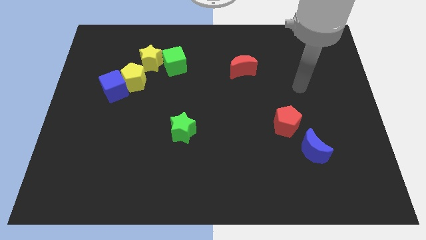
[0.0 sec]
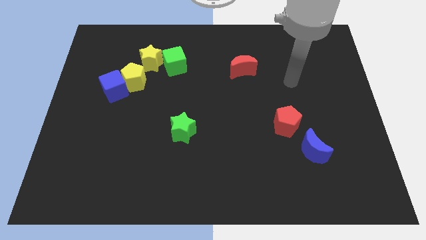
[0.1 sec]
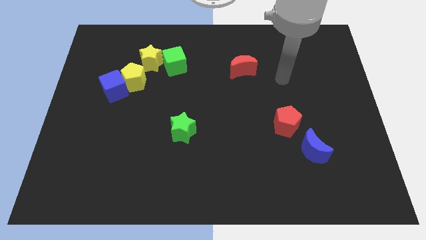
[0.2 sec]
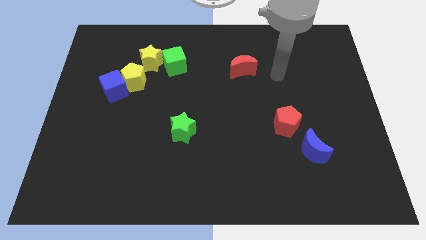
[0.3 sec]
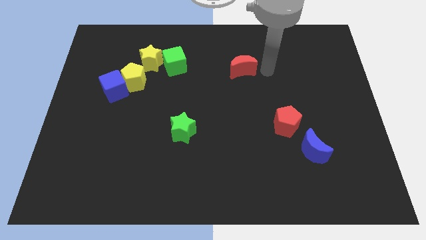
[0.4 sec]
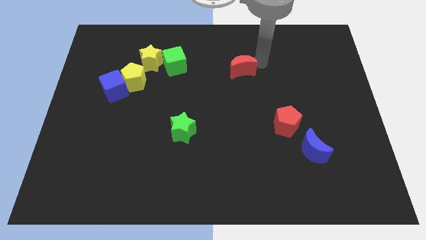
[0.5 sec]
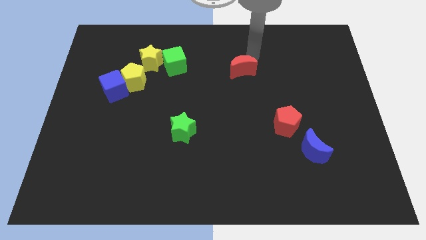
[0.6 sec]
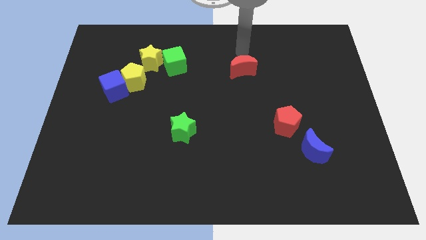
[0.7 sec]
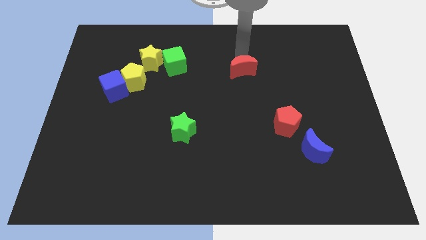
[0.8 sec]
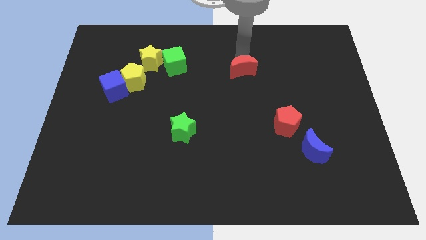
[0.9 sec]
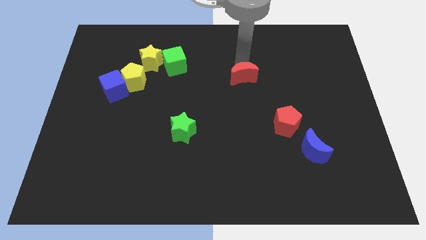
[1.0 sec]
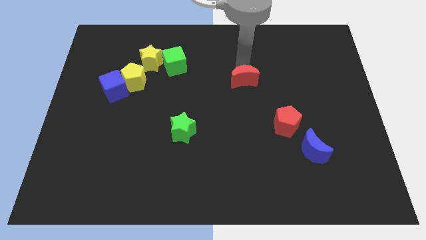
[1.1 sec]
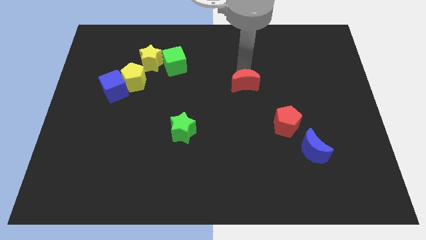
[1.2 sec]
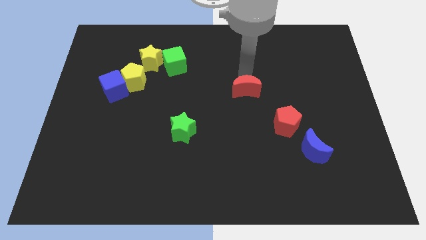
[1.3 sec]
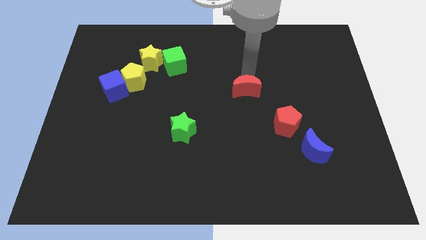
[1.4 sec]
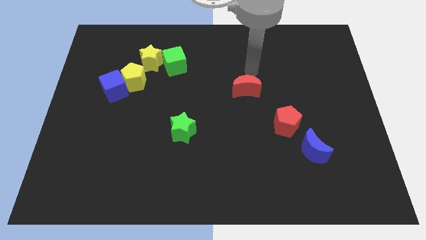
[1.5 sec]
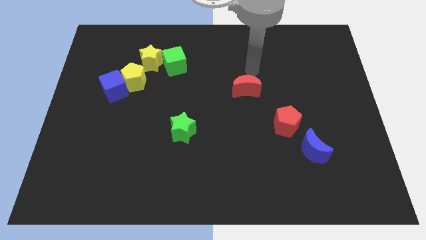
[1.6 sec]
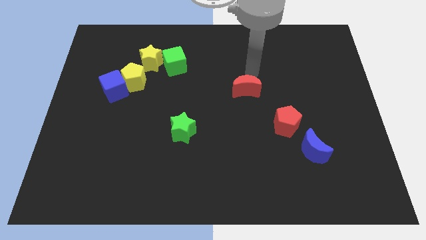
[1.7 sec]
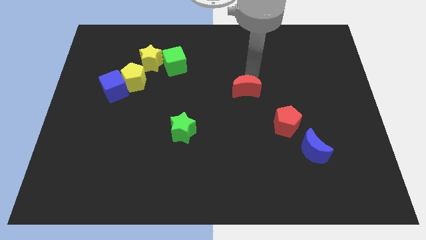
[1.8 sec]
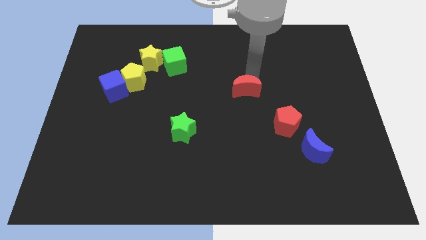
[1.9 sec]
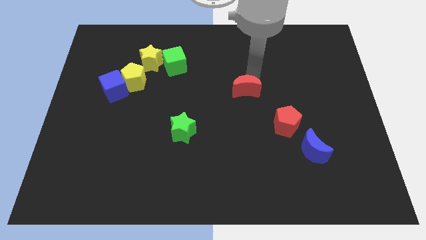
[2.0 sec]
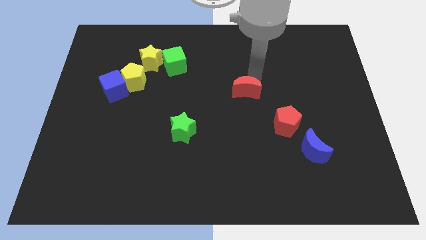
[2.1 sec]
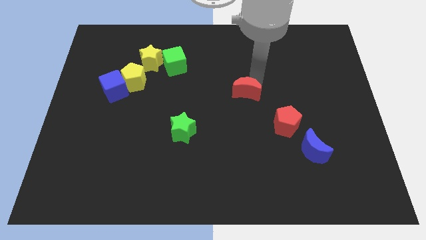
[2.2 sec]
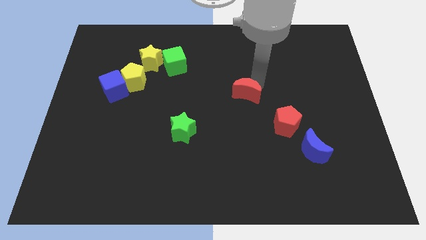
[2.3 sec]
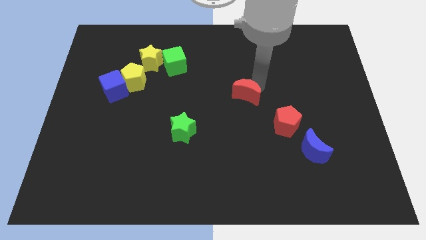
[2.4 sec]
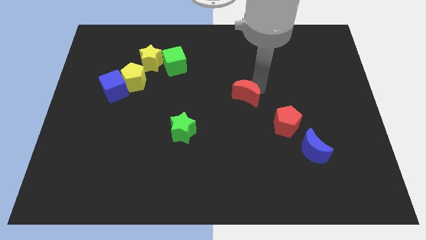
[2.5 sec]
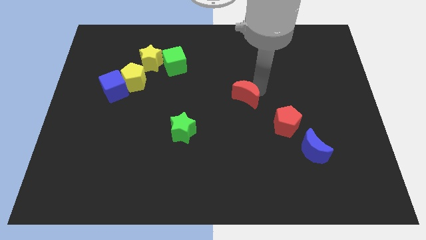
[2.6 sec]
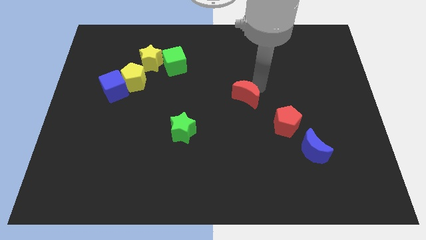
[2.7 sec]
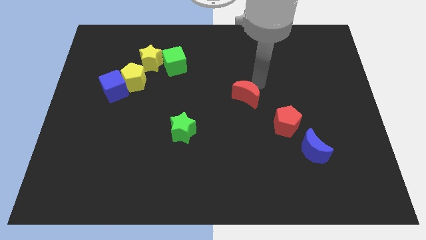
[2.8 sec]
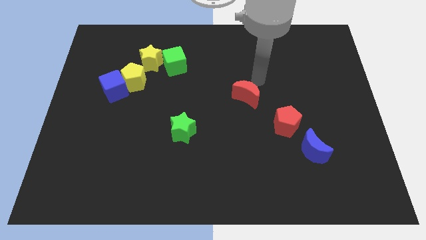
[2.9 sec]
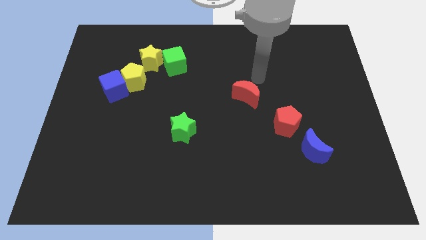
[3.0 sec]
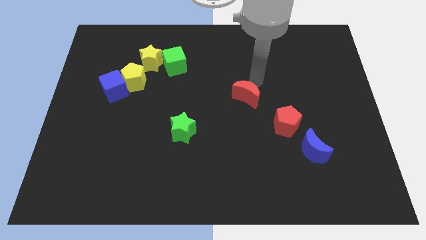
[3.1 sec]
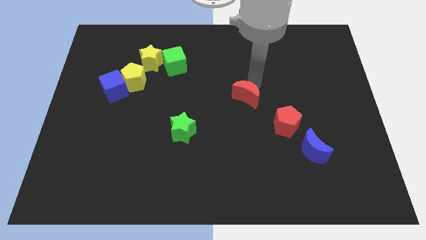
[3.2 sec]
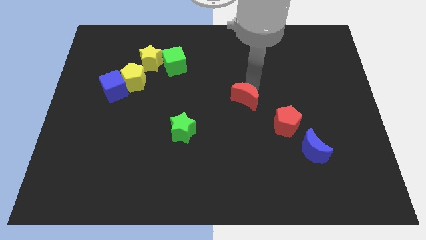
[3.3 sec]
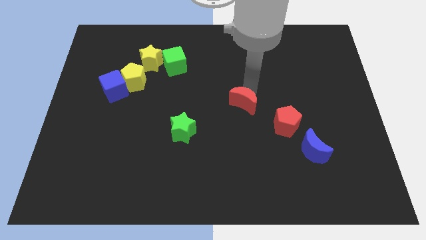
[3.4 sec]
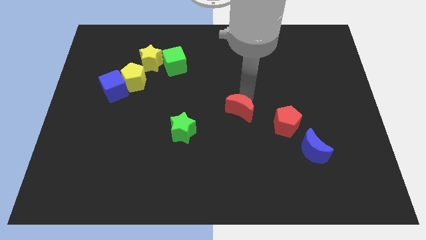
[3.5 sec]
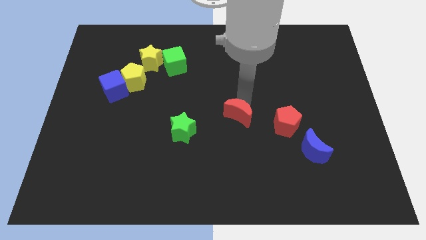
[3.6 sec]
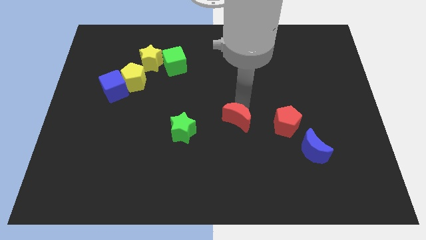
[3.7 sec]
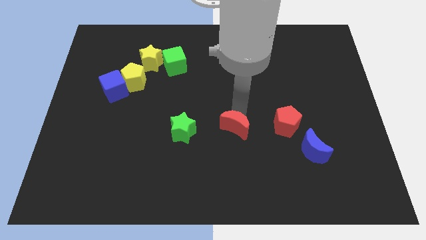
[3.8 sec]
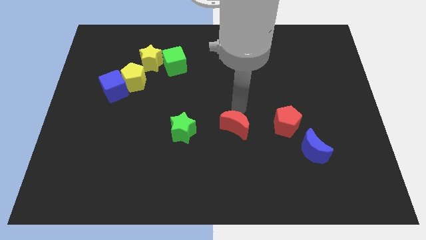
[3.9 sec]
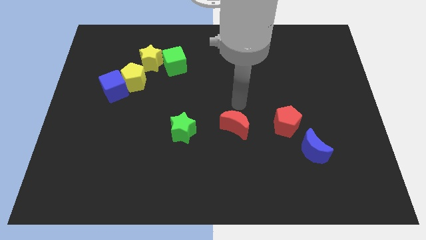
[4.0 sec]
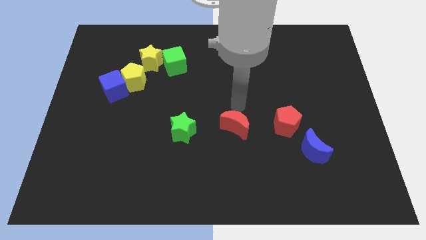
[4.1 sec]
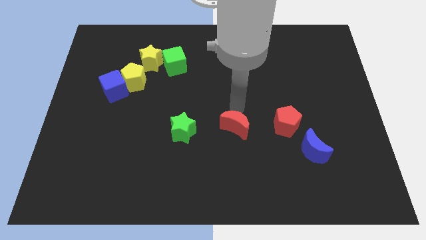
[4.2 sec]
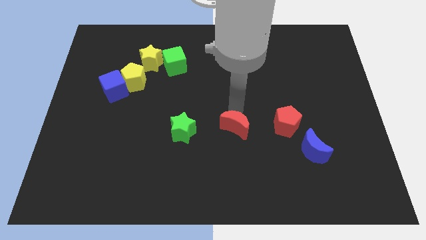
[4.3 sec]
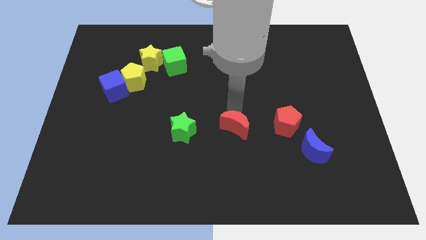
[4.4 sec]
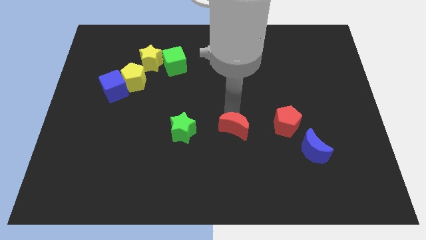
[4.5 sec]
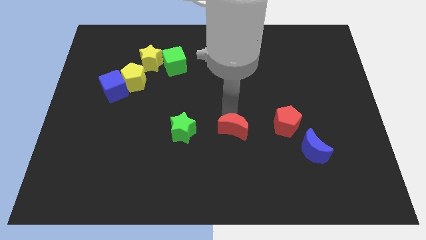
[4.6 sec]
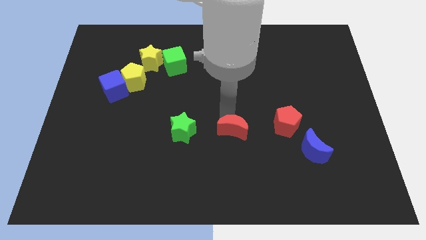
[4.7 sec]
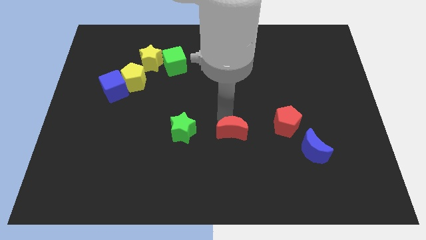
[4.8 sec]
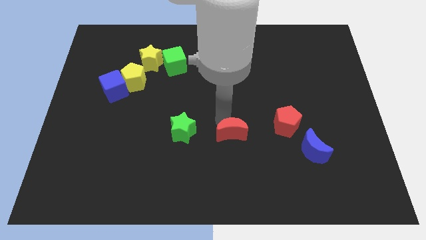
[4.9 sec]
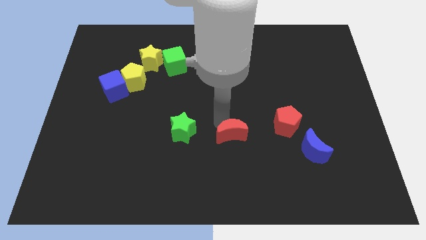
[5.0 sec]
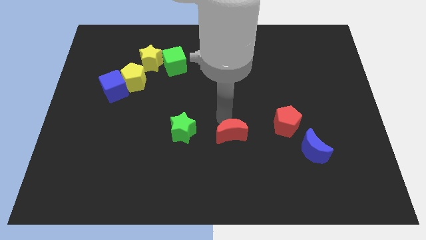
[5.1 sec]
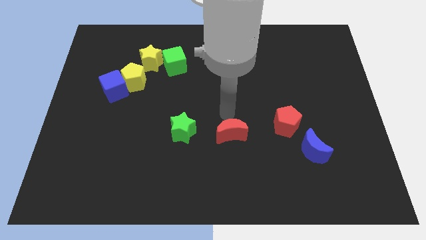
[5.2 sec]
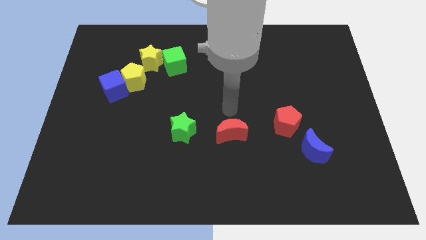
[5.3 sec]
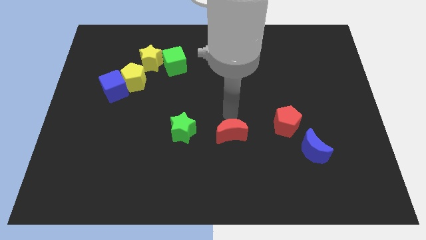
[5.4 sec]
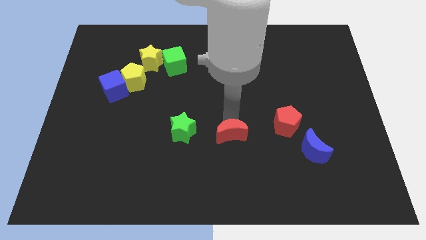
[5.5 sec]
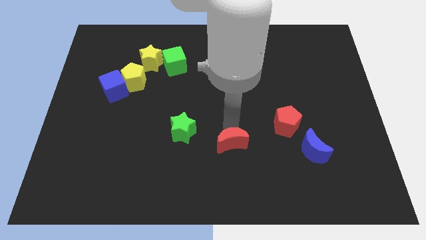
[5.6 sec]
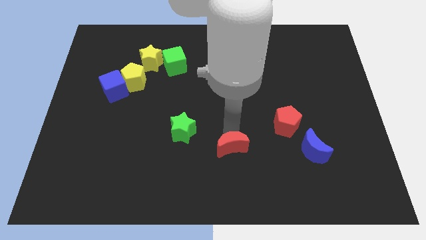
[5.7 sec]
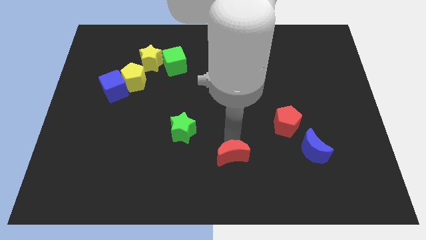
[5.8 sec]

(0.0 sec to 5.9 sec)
push the red moon to the bottom

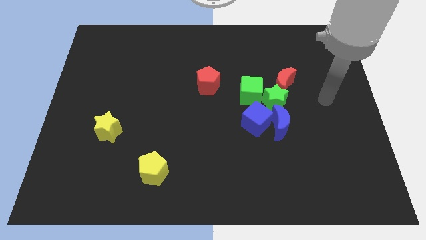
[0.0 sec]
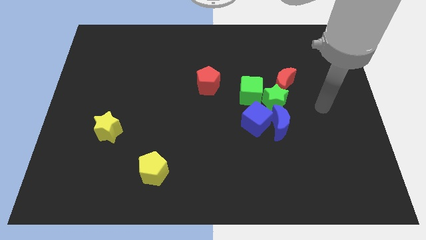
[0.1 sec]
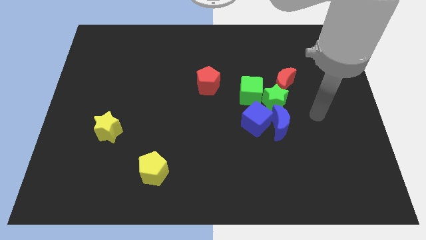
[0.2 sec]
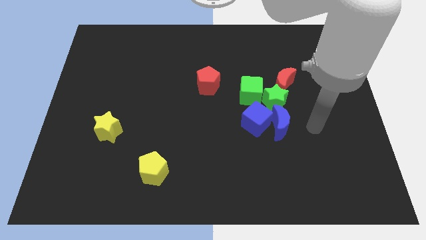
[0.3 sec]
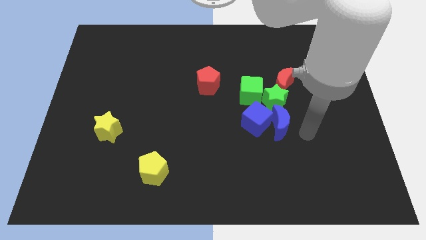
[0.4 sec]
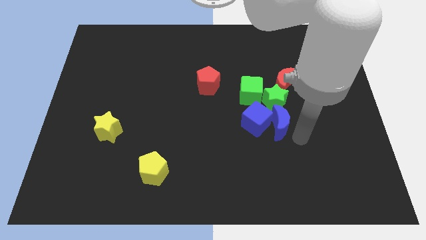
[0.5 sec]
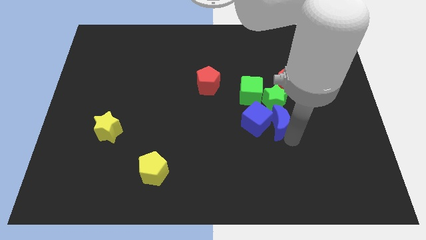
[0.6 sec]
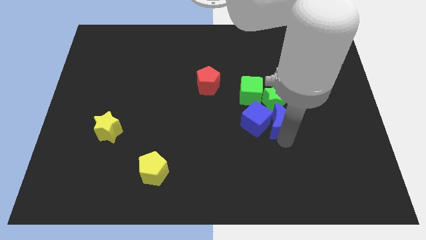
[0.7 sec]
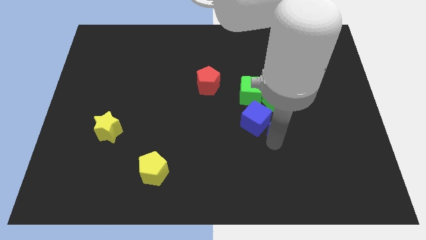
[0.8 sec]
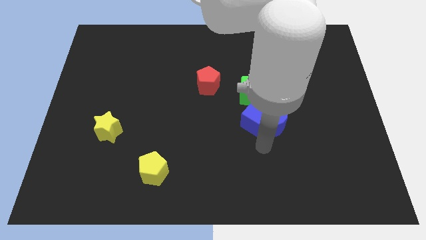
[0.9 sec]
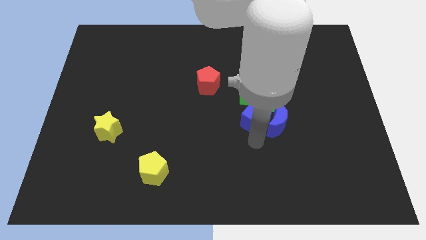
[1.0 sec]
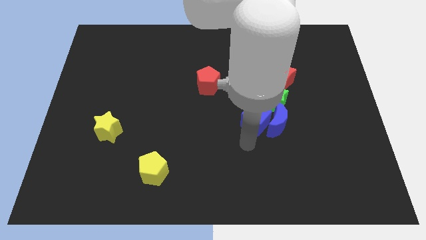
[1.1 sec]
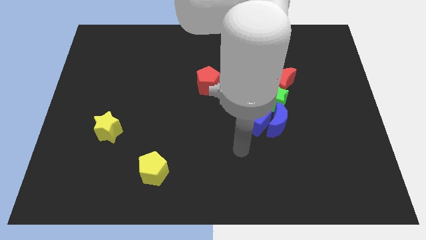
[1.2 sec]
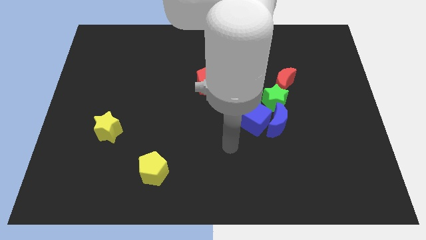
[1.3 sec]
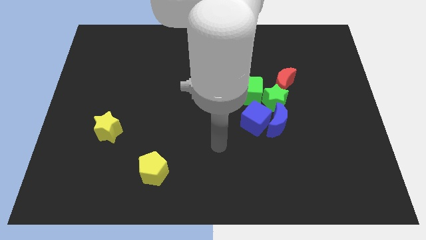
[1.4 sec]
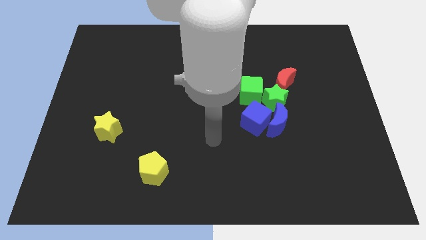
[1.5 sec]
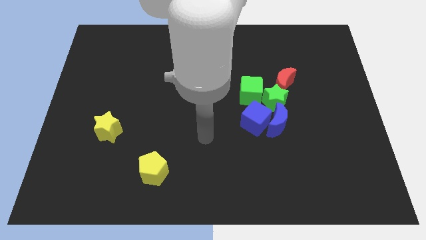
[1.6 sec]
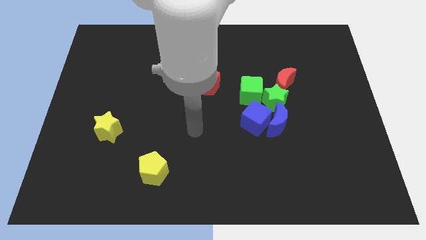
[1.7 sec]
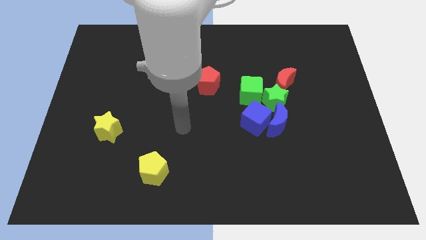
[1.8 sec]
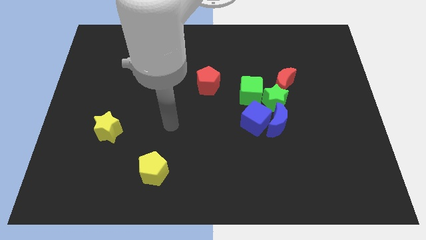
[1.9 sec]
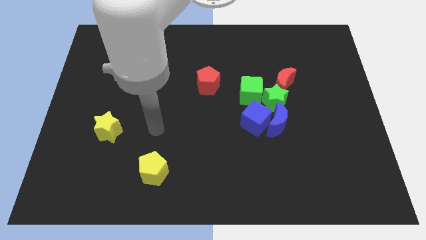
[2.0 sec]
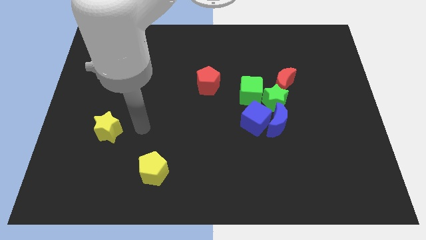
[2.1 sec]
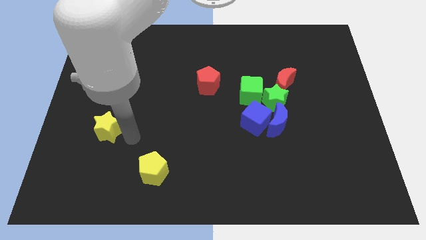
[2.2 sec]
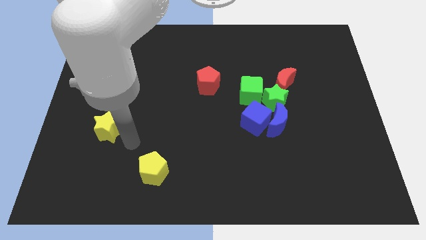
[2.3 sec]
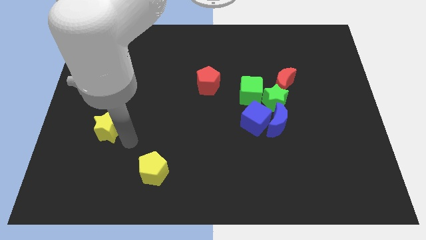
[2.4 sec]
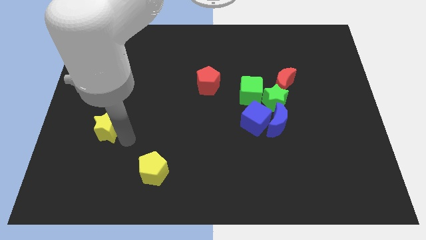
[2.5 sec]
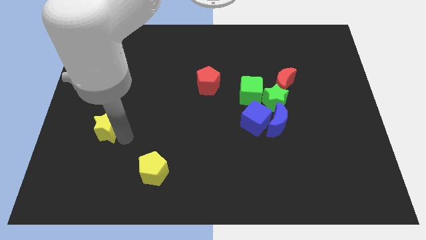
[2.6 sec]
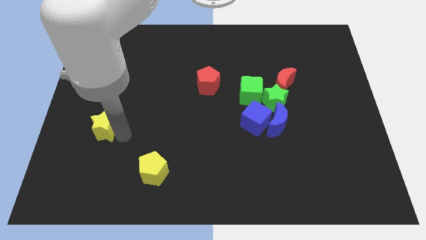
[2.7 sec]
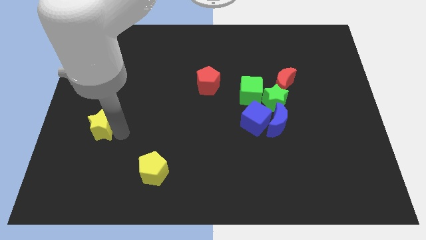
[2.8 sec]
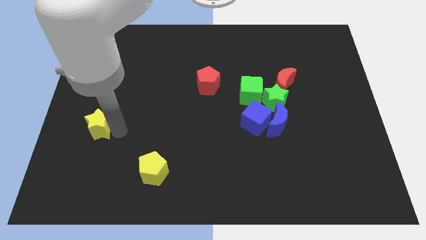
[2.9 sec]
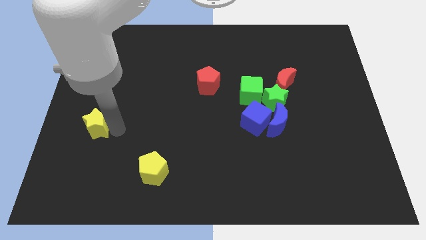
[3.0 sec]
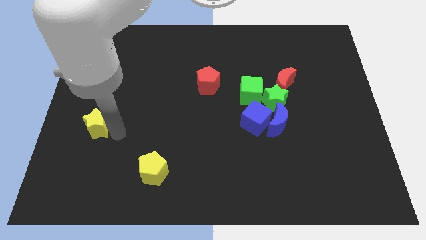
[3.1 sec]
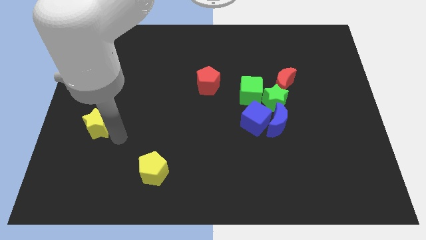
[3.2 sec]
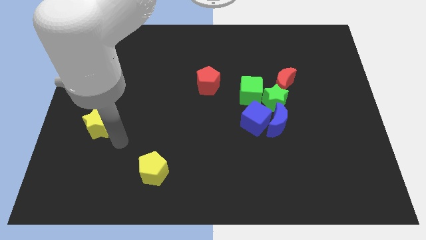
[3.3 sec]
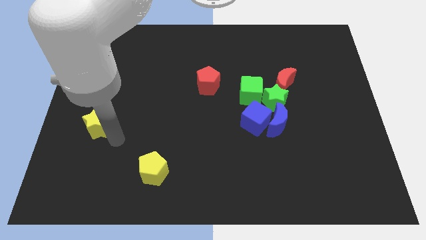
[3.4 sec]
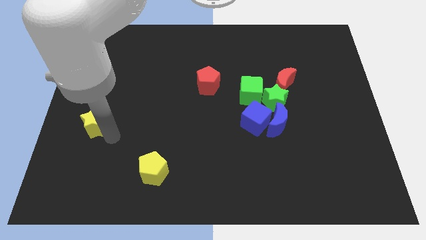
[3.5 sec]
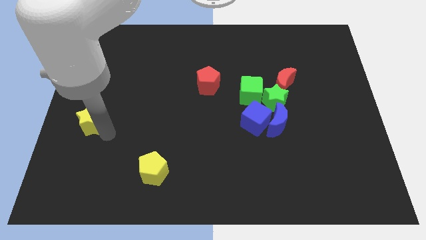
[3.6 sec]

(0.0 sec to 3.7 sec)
push the yellow star to the left side of the board
